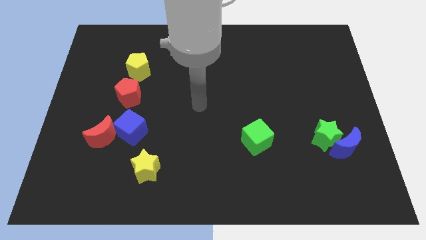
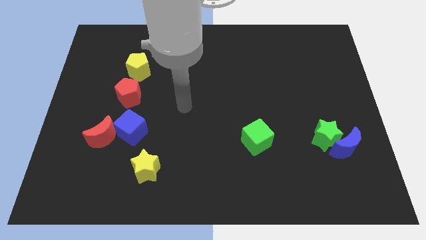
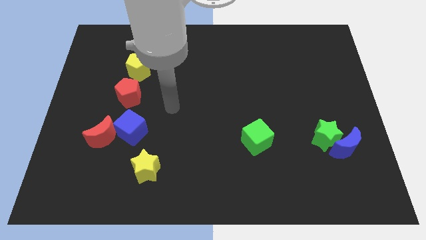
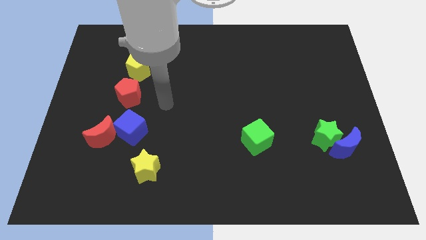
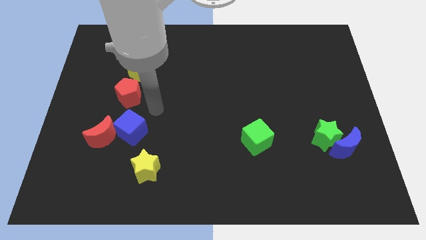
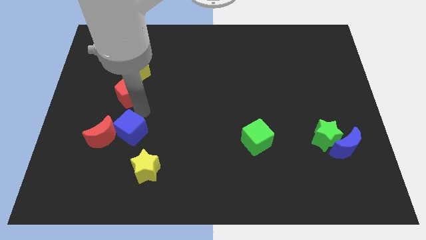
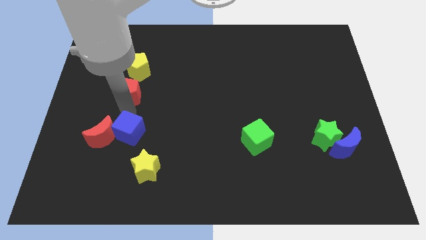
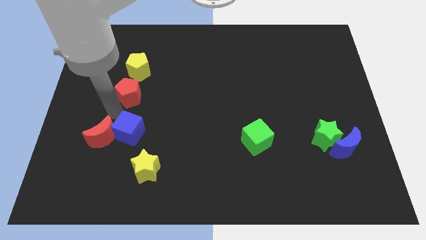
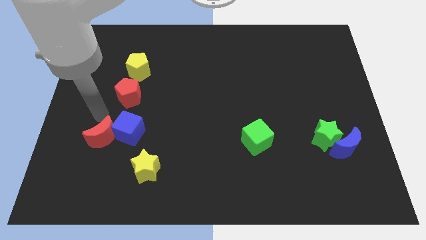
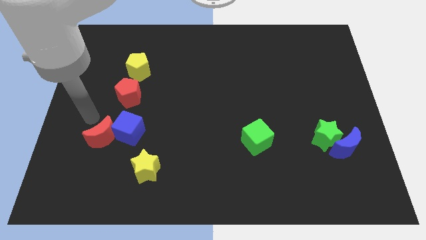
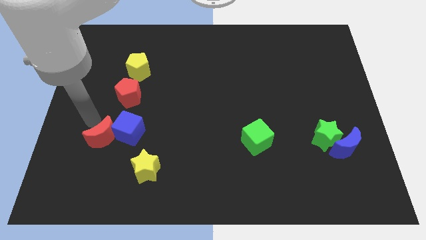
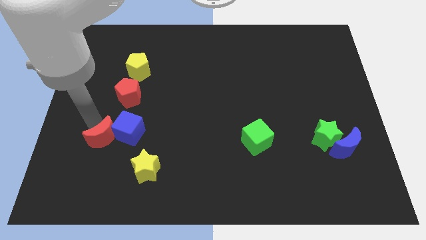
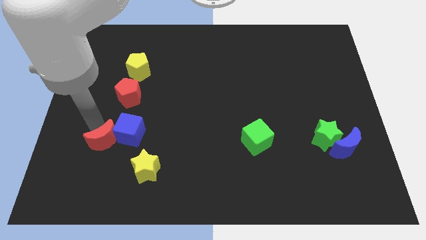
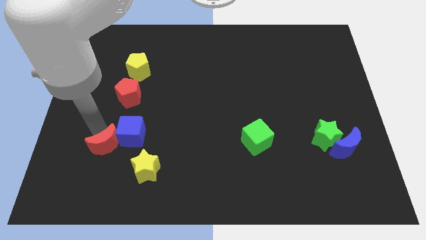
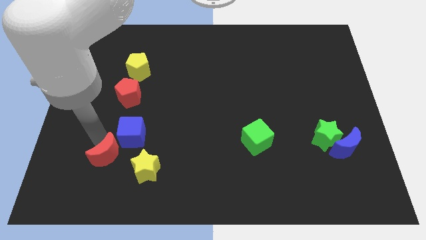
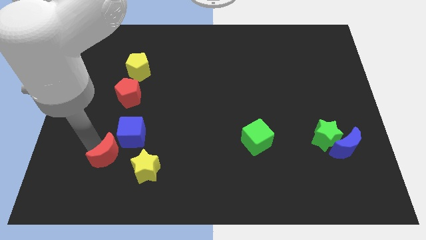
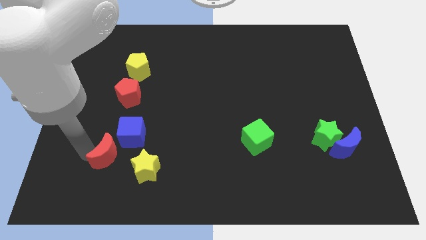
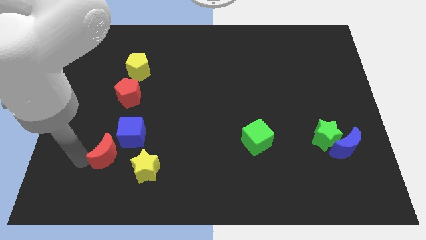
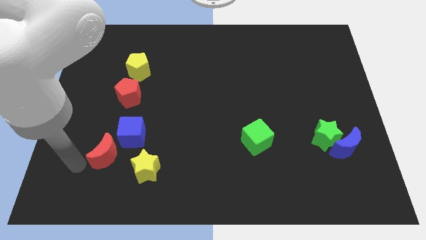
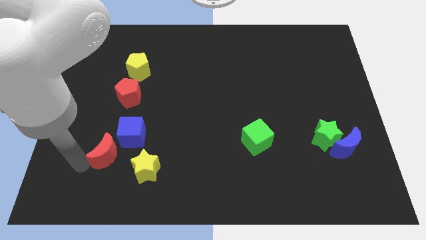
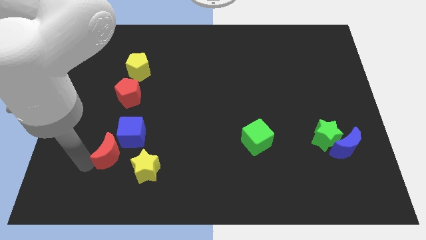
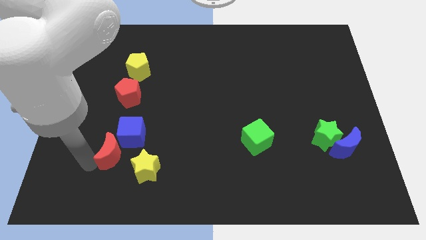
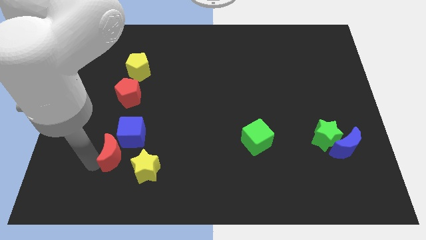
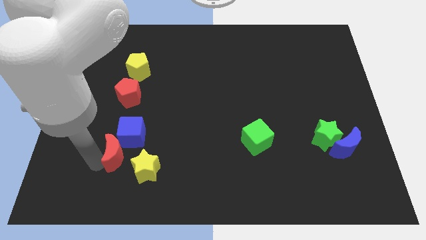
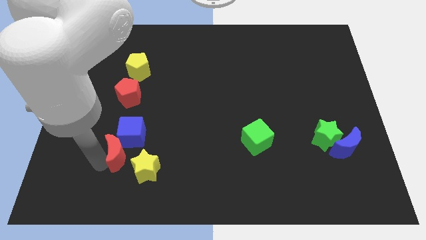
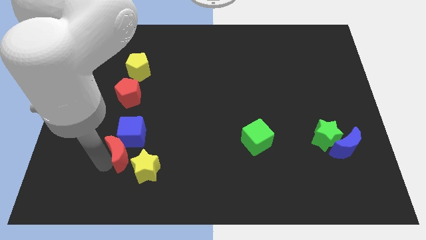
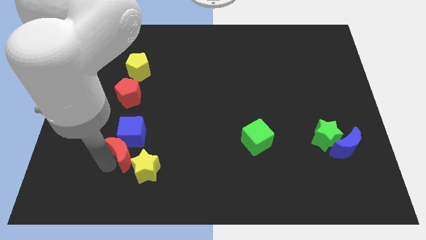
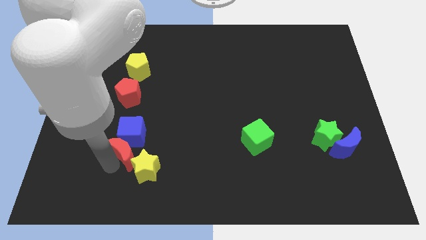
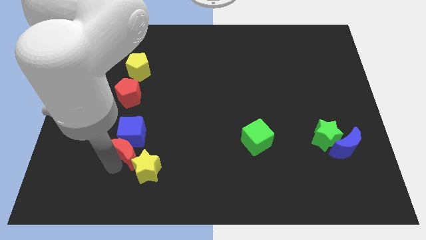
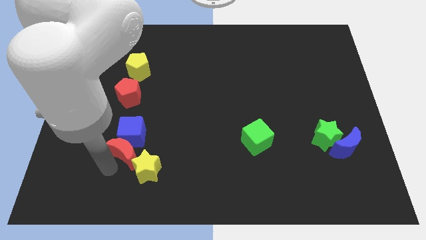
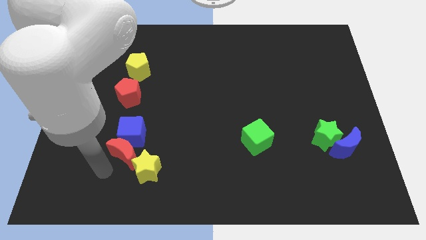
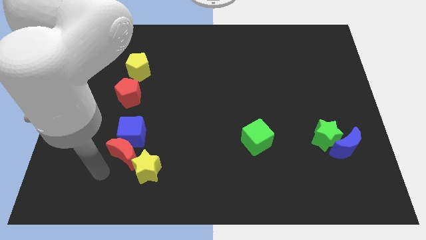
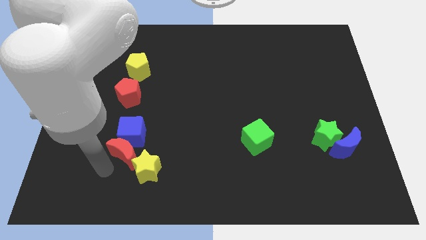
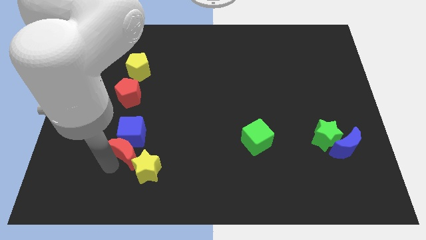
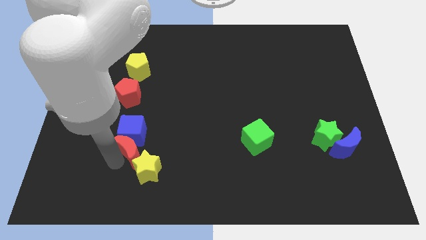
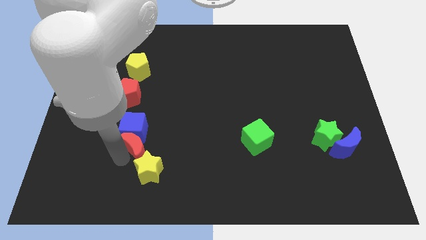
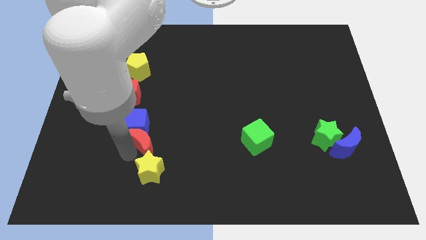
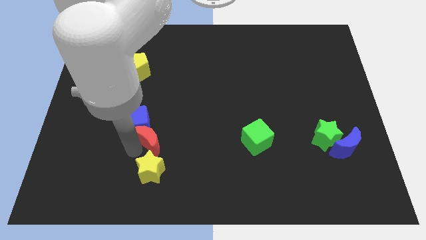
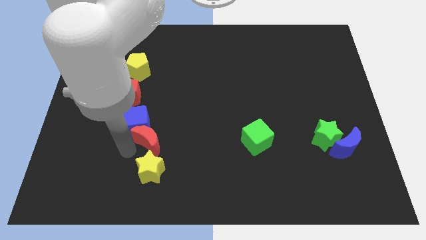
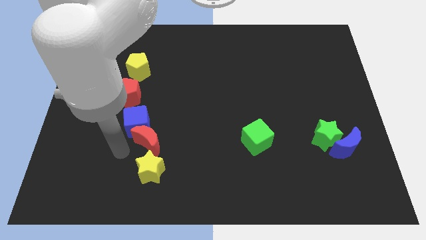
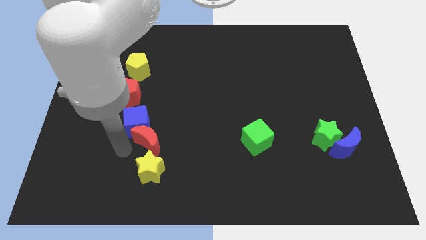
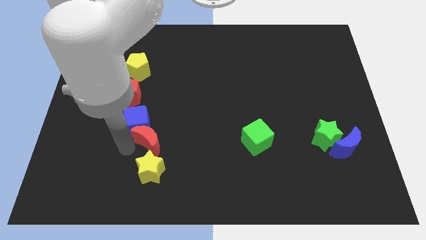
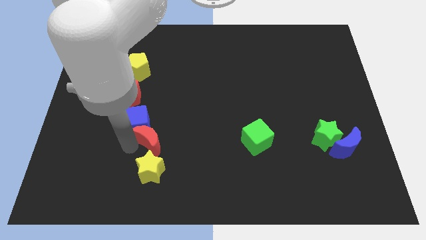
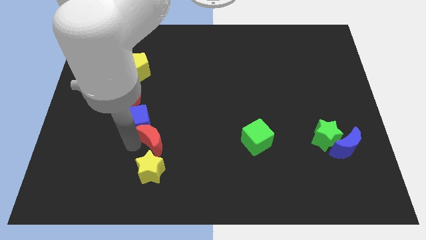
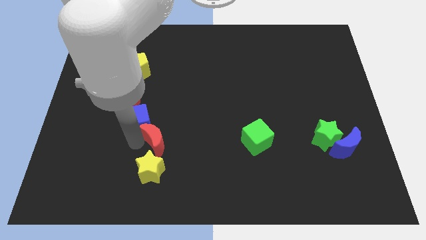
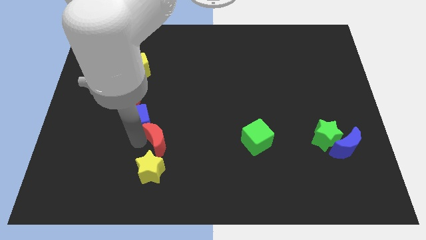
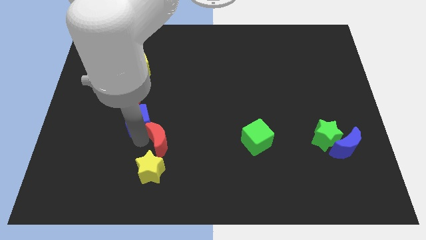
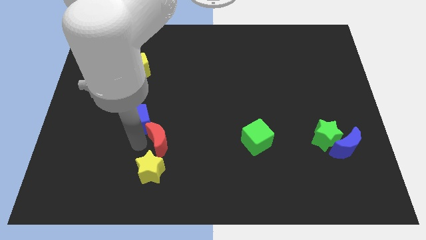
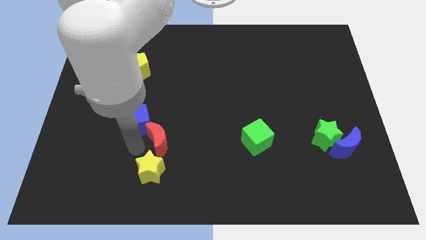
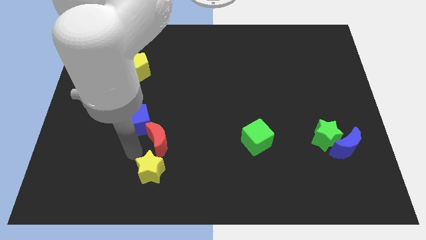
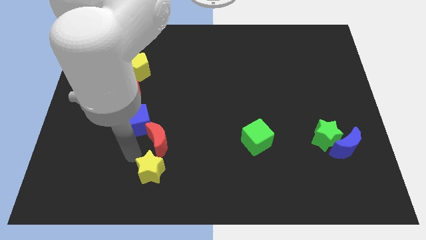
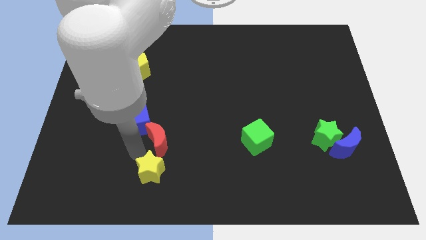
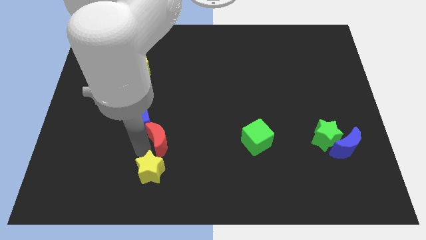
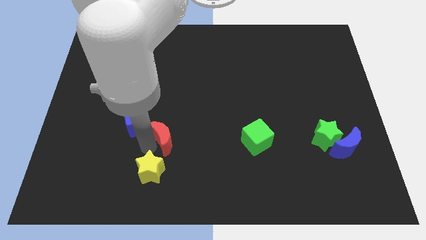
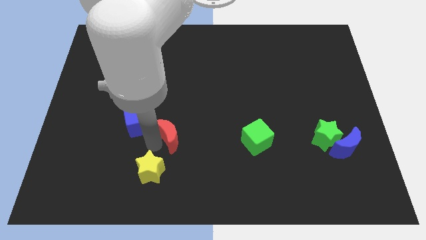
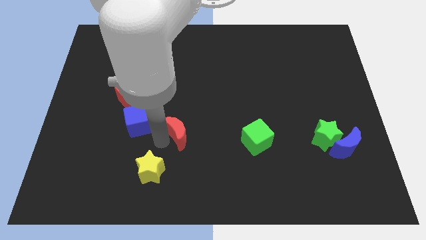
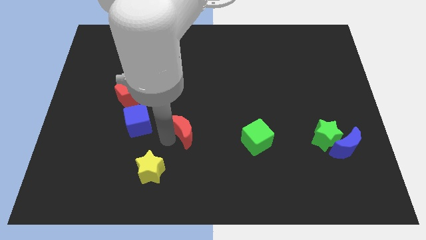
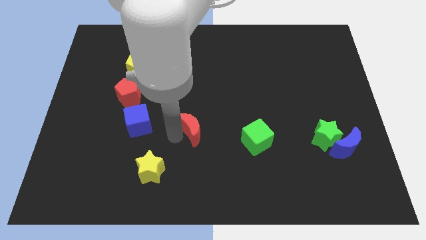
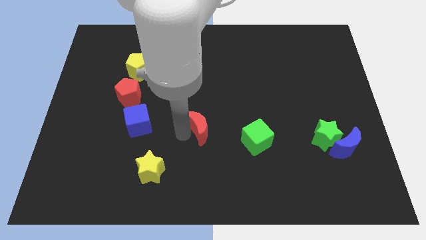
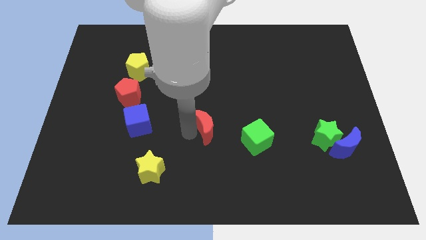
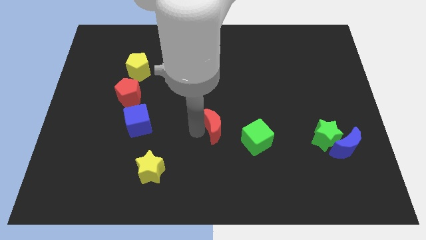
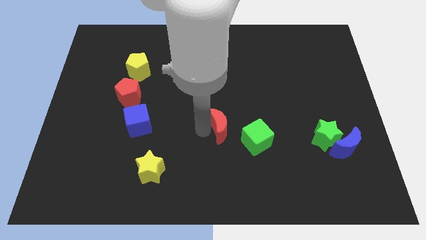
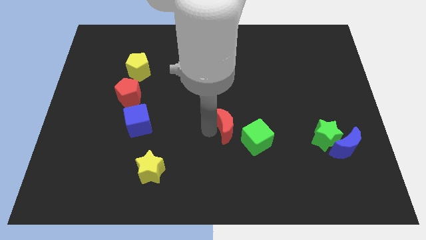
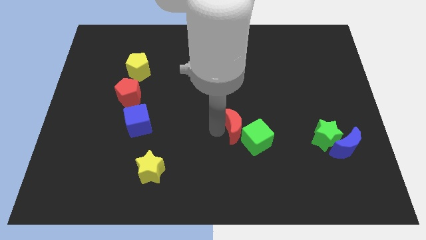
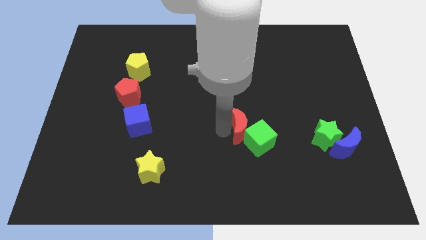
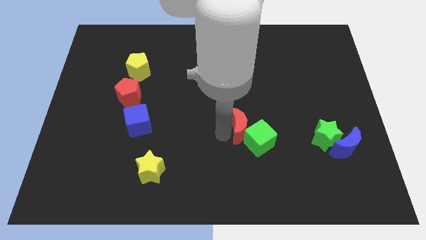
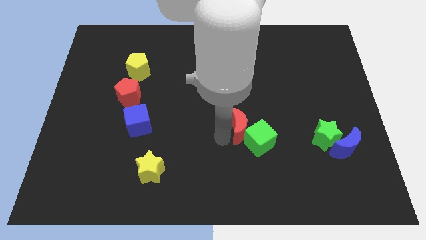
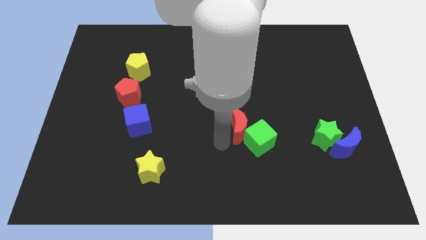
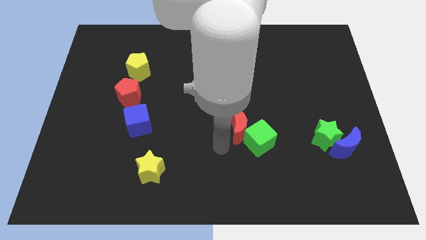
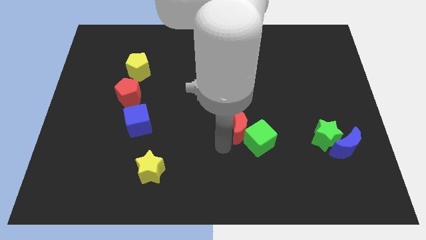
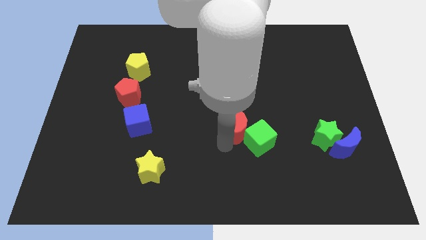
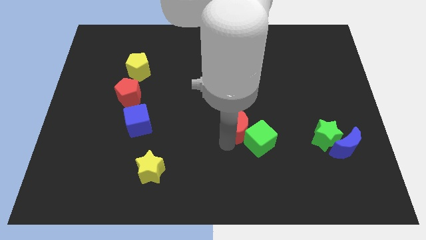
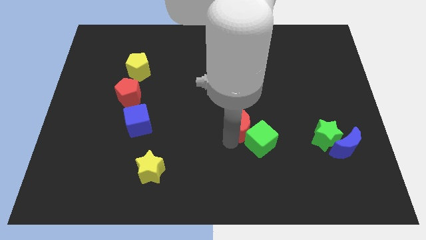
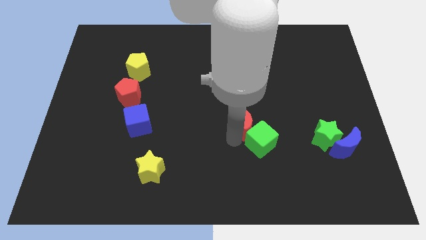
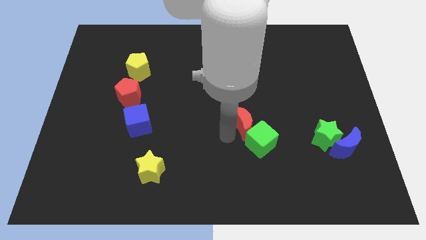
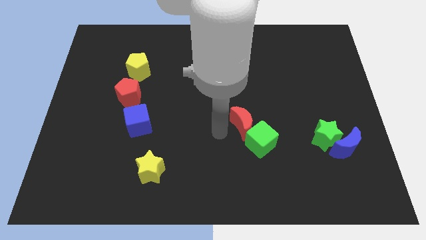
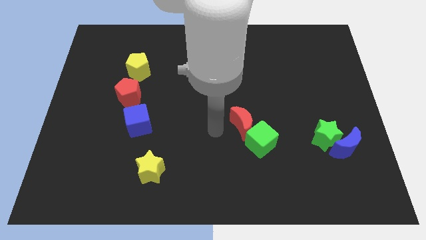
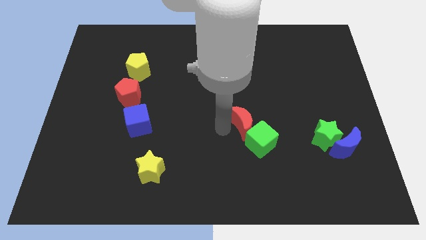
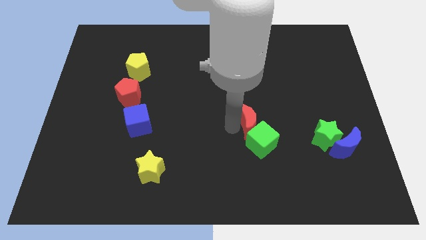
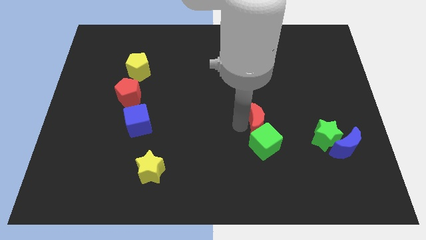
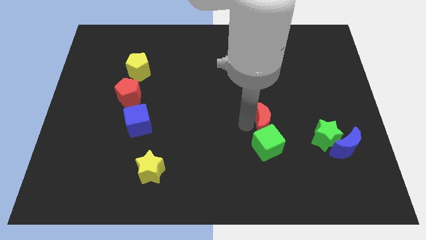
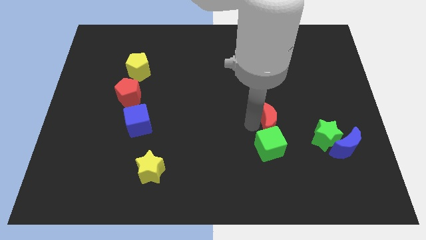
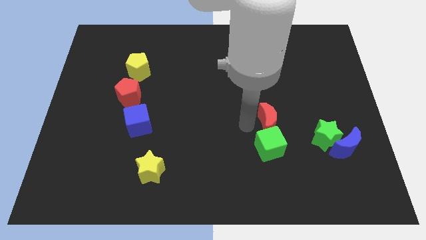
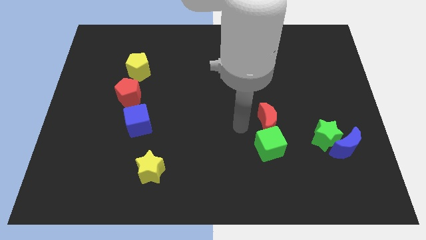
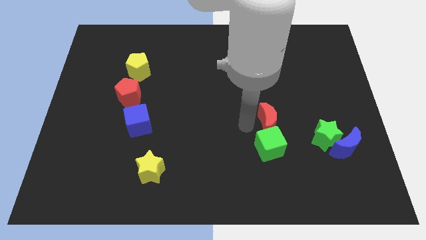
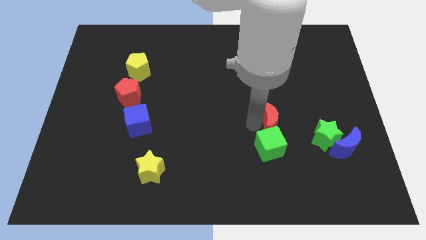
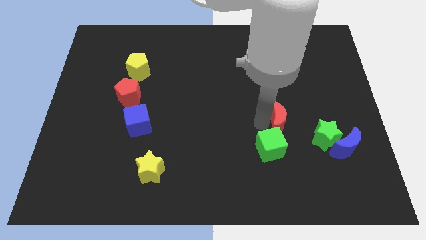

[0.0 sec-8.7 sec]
slide the red moon diagonally up and to the left of the green star
